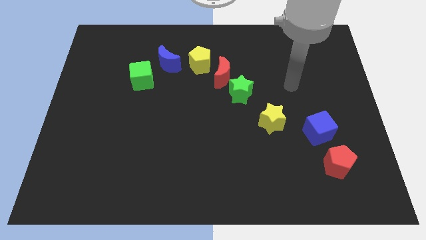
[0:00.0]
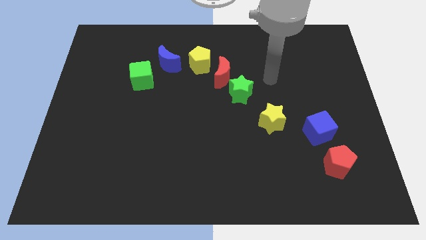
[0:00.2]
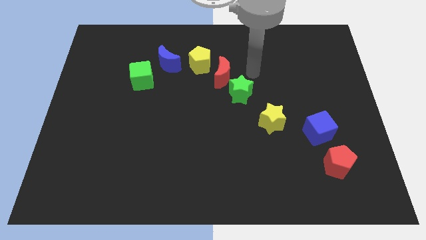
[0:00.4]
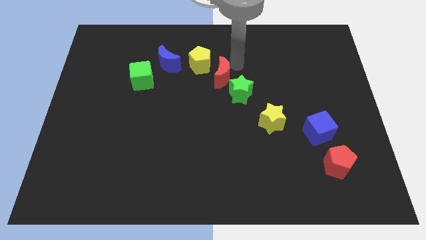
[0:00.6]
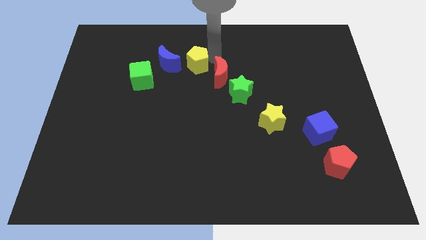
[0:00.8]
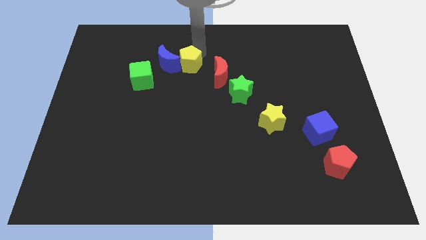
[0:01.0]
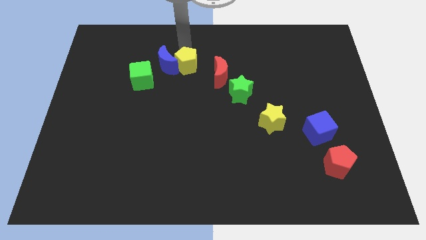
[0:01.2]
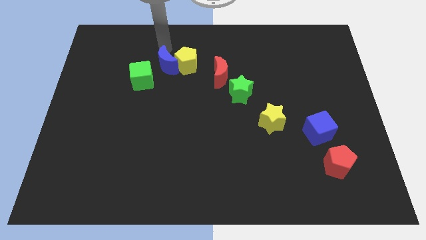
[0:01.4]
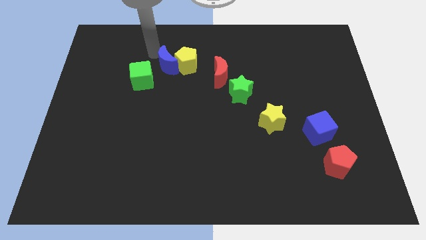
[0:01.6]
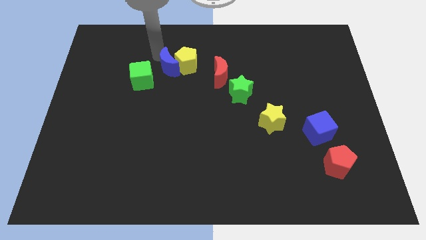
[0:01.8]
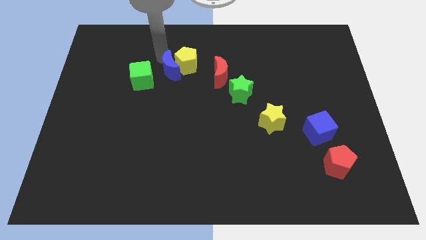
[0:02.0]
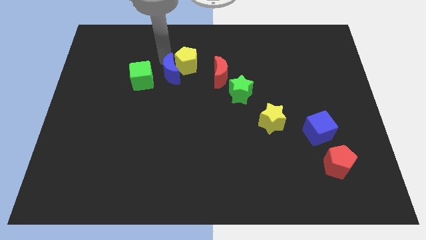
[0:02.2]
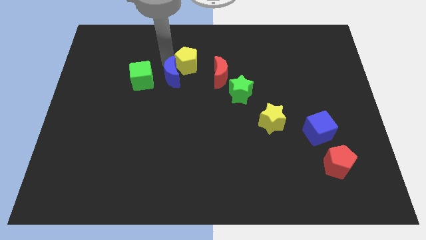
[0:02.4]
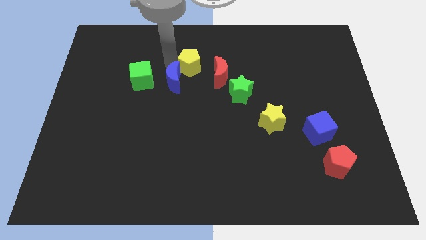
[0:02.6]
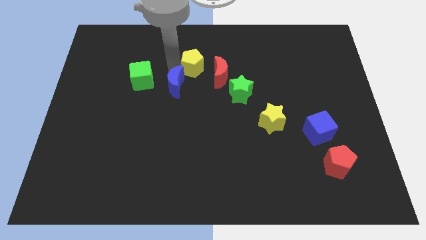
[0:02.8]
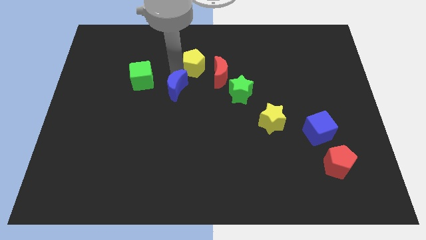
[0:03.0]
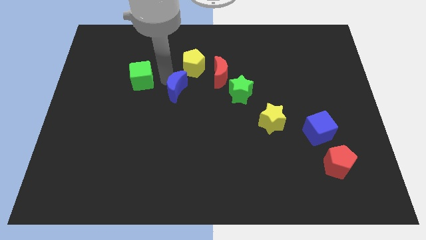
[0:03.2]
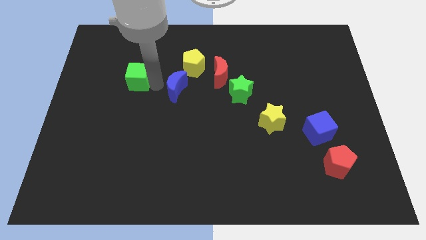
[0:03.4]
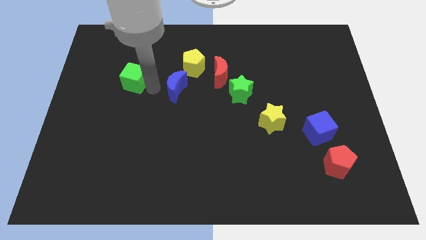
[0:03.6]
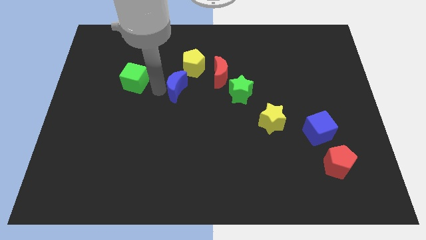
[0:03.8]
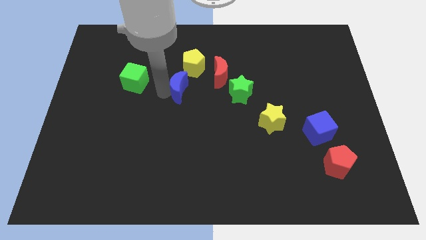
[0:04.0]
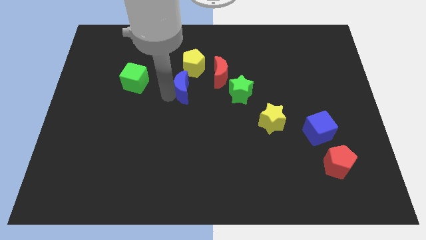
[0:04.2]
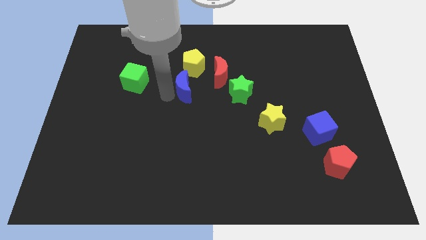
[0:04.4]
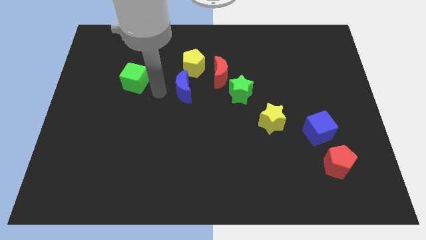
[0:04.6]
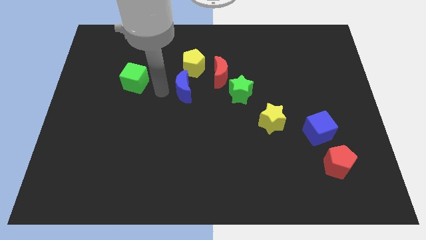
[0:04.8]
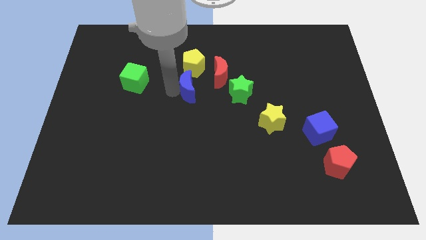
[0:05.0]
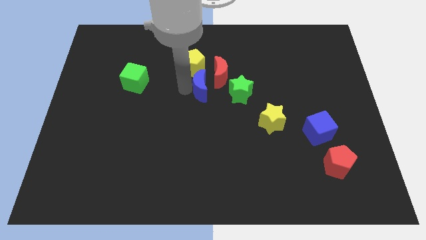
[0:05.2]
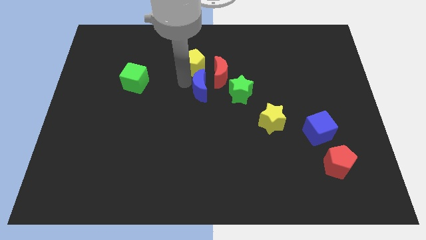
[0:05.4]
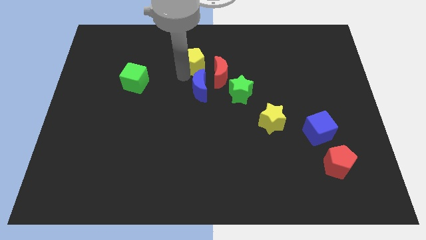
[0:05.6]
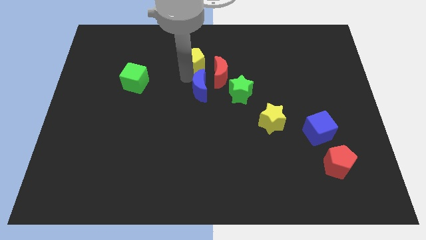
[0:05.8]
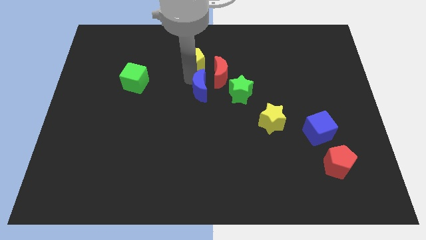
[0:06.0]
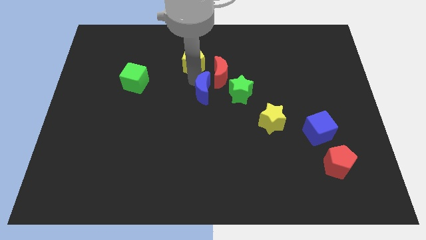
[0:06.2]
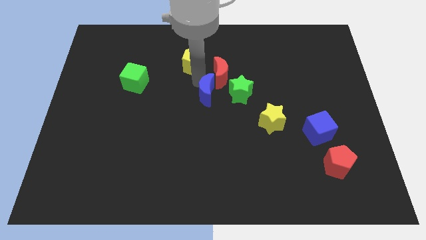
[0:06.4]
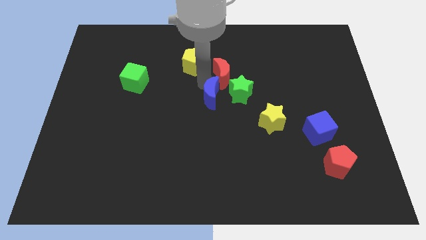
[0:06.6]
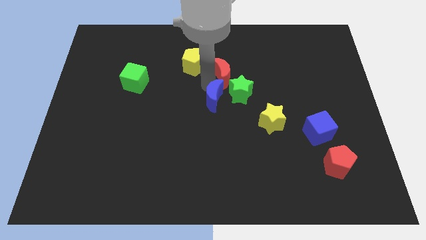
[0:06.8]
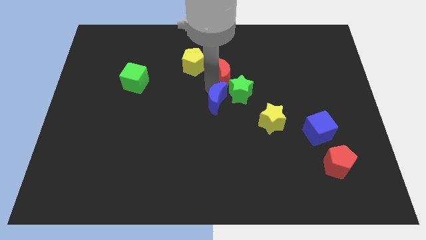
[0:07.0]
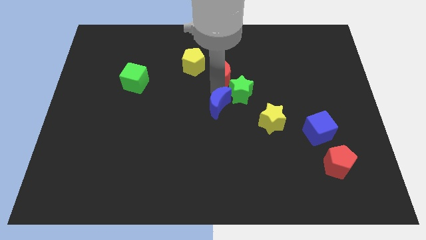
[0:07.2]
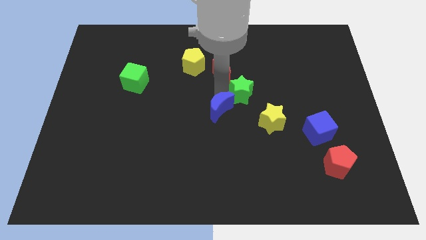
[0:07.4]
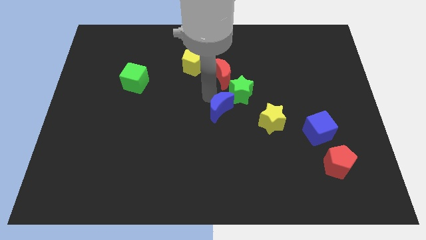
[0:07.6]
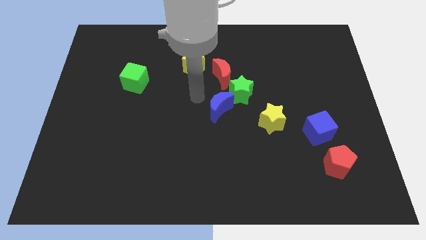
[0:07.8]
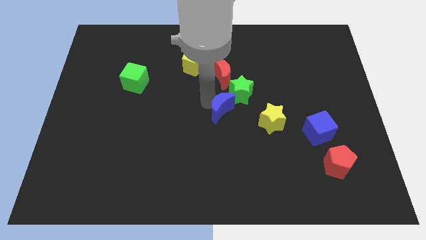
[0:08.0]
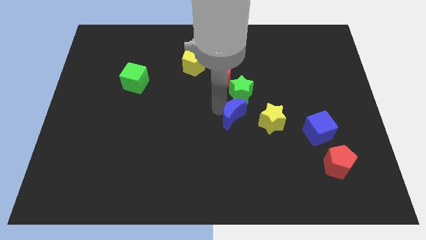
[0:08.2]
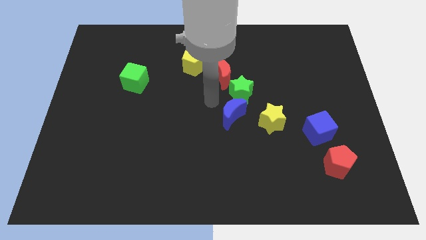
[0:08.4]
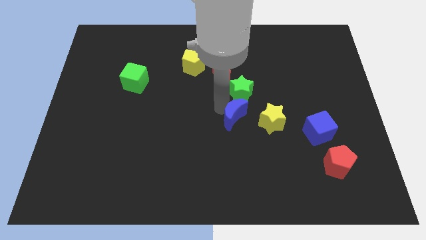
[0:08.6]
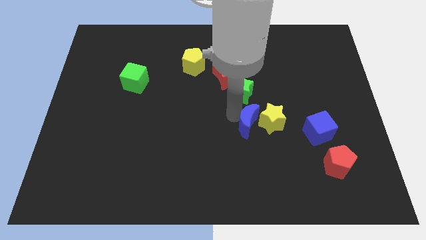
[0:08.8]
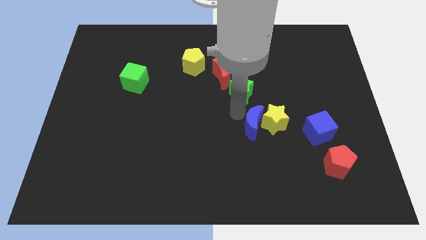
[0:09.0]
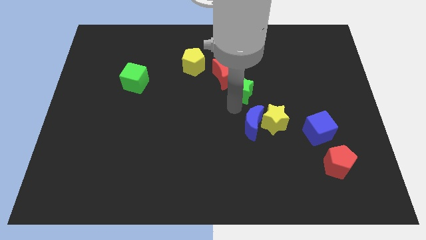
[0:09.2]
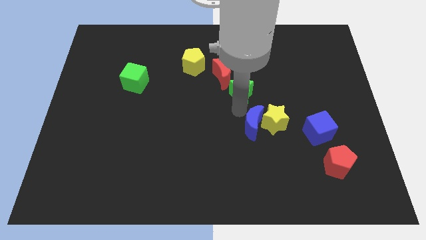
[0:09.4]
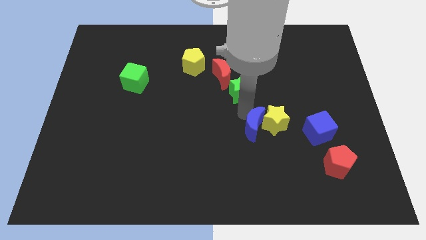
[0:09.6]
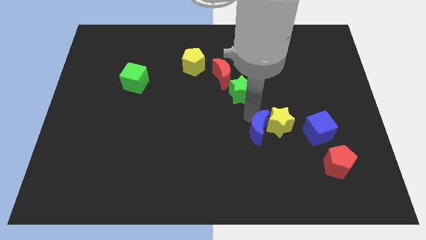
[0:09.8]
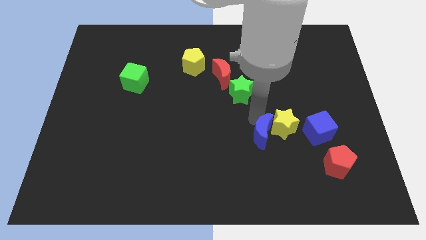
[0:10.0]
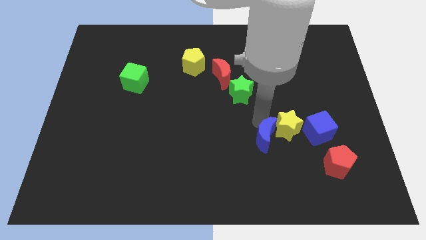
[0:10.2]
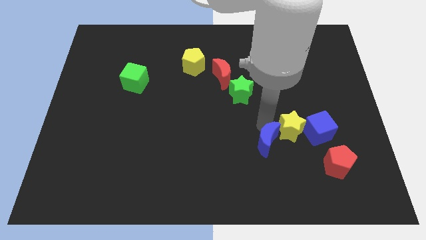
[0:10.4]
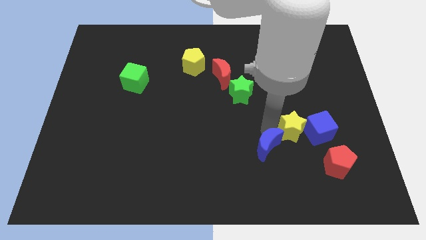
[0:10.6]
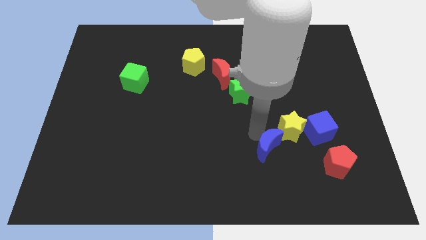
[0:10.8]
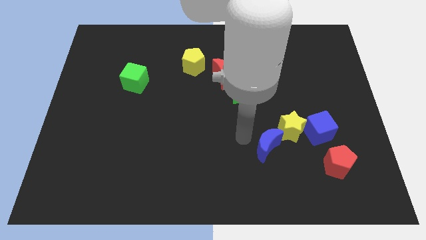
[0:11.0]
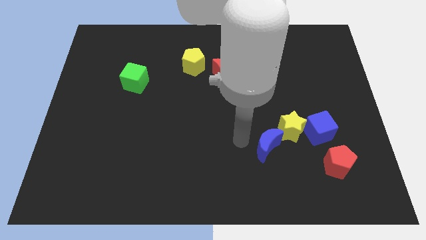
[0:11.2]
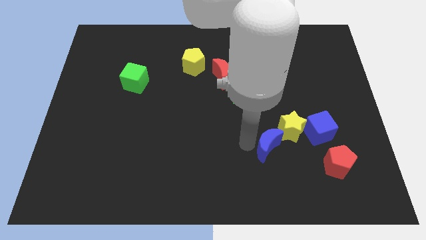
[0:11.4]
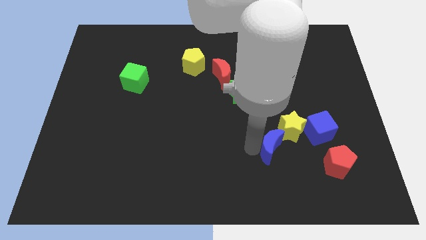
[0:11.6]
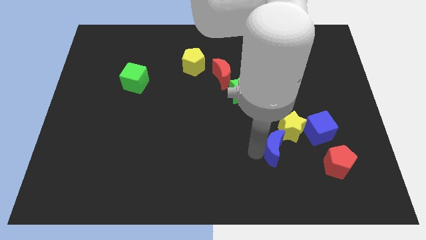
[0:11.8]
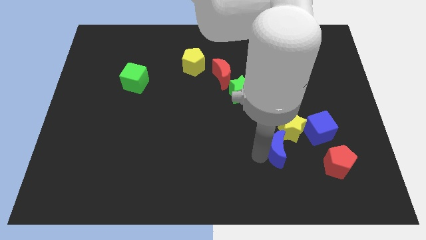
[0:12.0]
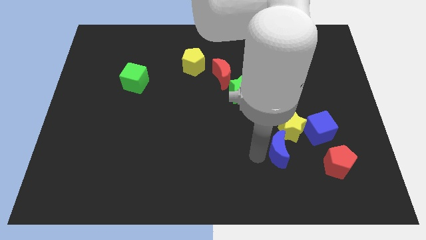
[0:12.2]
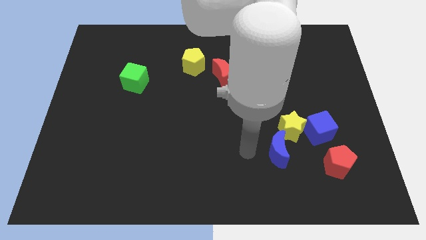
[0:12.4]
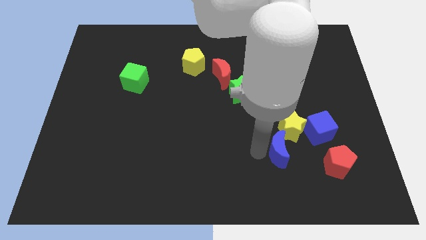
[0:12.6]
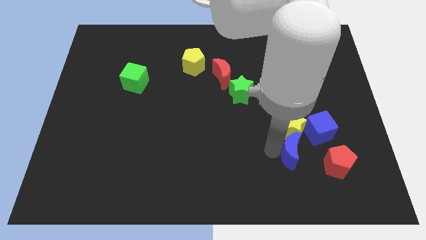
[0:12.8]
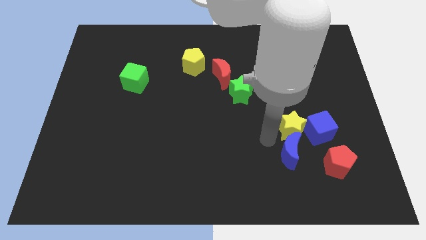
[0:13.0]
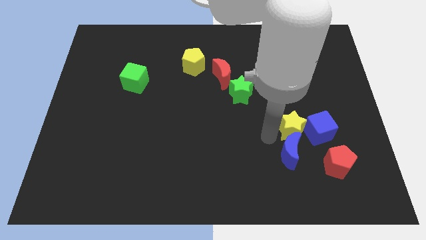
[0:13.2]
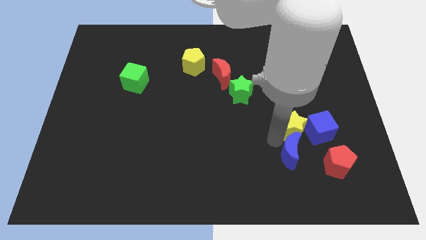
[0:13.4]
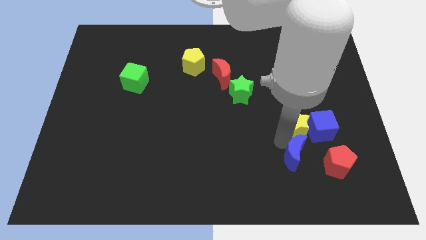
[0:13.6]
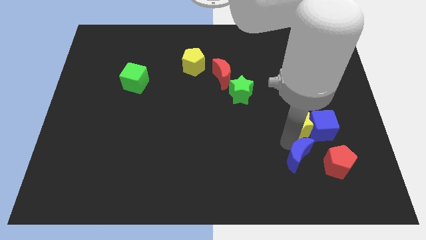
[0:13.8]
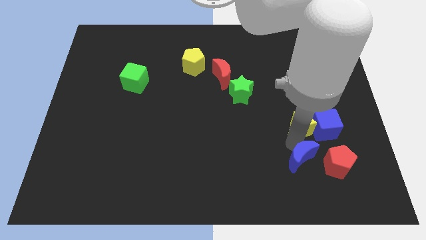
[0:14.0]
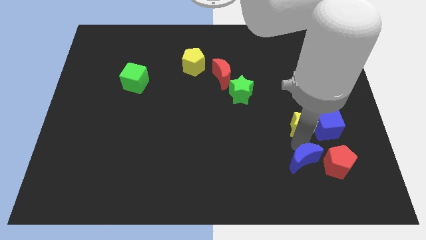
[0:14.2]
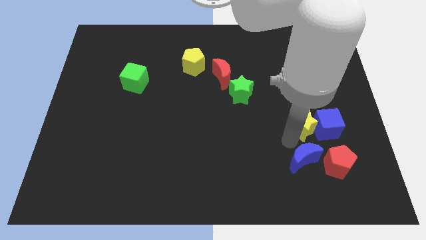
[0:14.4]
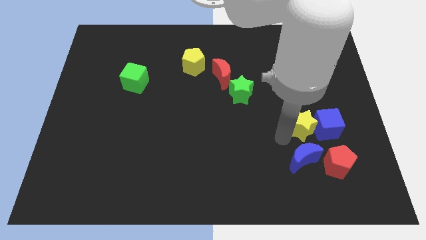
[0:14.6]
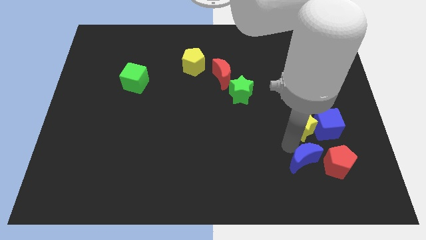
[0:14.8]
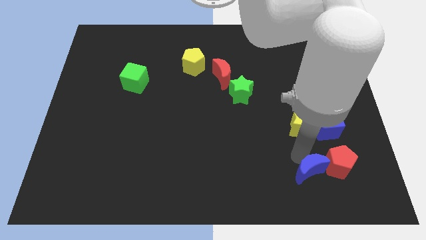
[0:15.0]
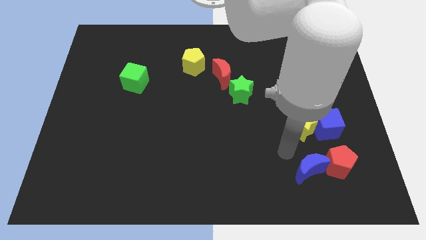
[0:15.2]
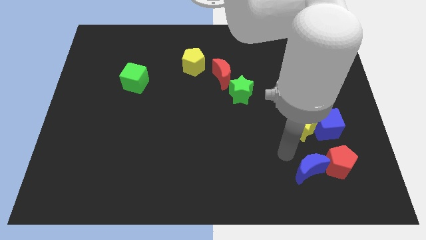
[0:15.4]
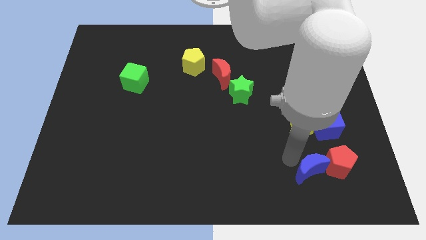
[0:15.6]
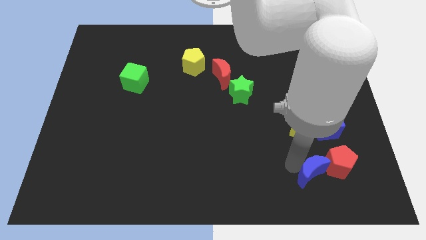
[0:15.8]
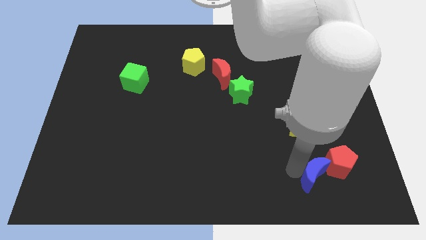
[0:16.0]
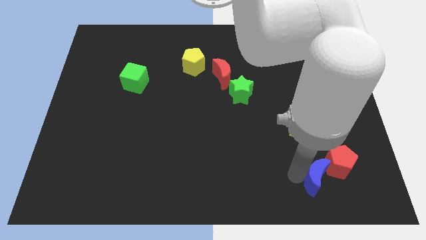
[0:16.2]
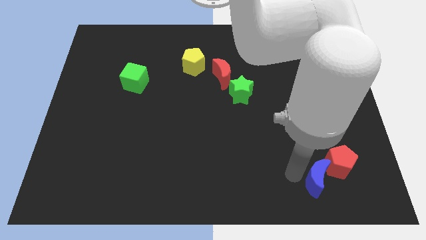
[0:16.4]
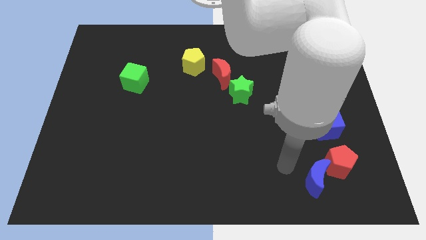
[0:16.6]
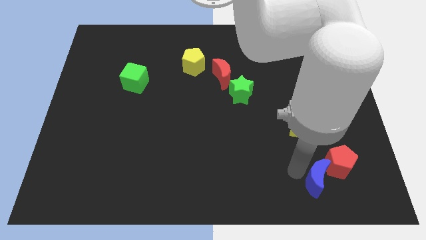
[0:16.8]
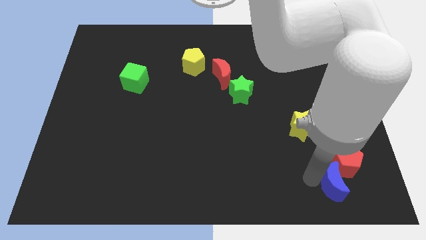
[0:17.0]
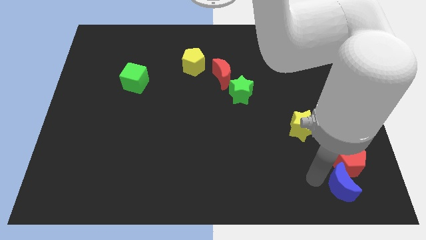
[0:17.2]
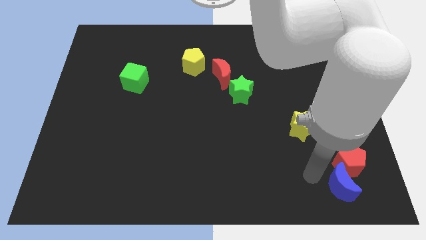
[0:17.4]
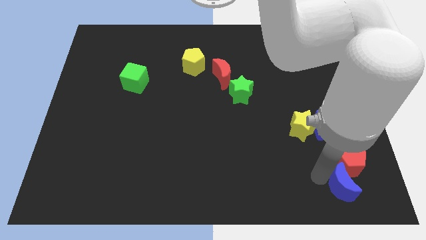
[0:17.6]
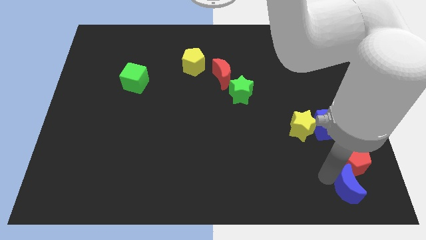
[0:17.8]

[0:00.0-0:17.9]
push the blue moon to the lower right corner
